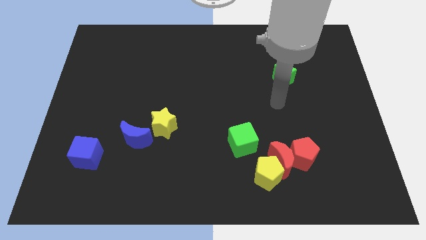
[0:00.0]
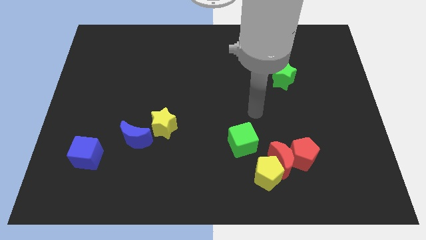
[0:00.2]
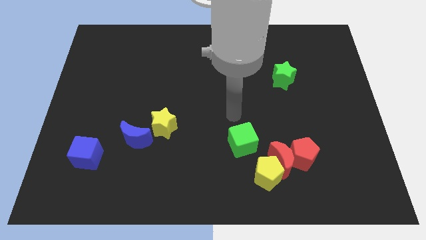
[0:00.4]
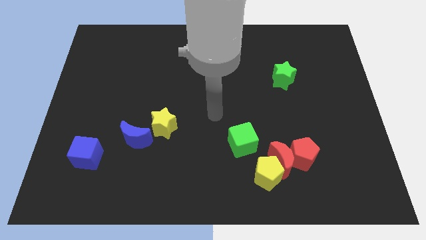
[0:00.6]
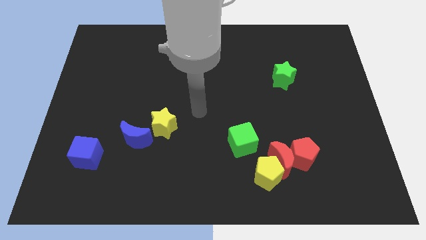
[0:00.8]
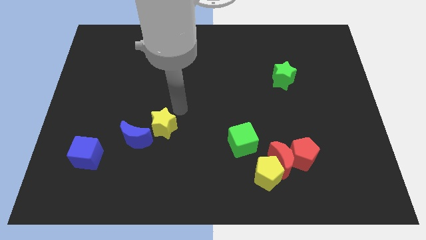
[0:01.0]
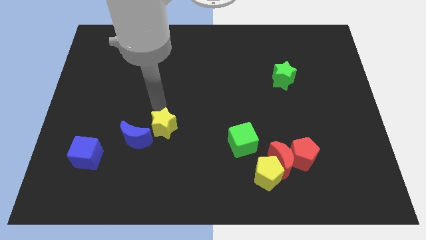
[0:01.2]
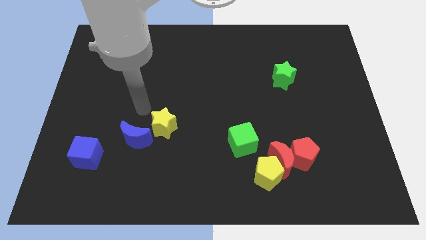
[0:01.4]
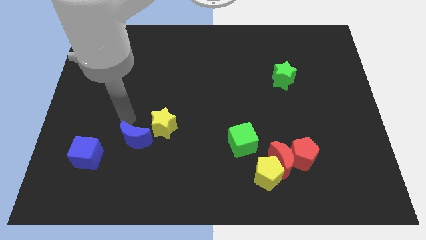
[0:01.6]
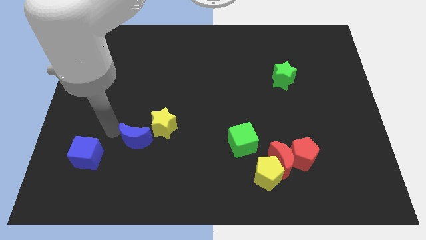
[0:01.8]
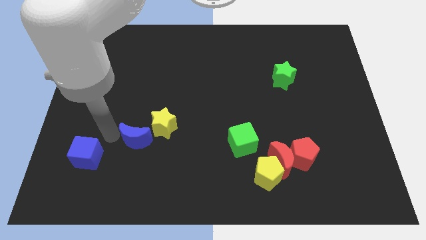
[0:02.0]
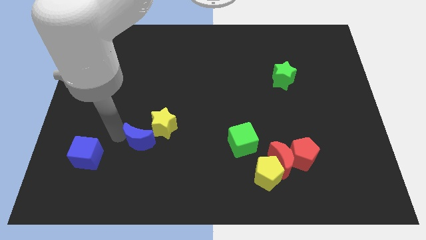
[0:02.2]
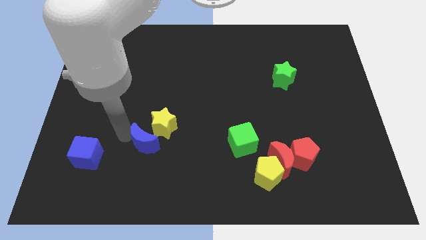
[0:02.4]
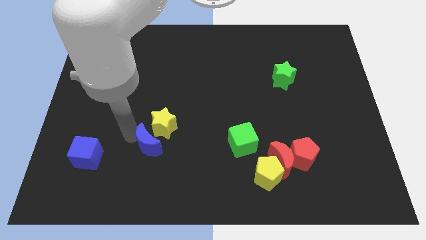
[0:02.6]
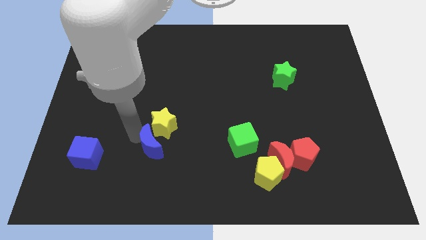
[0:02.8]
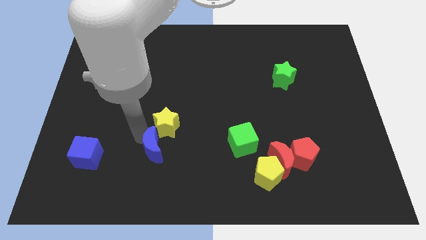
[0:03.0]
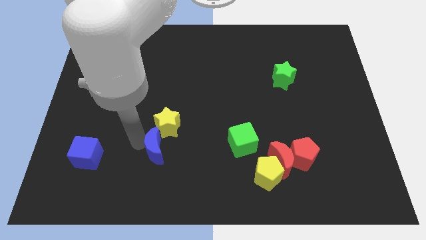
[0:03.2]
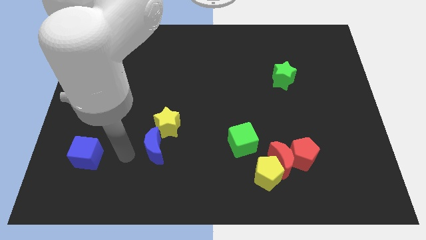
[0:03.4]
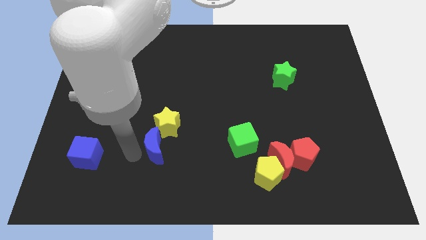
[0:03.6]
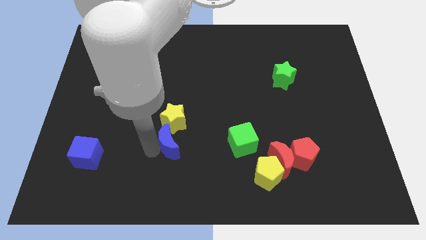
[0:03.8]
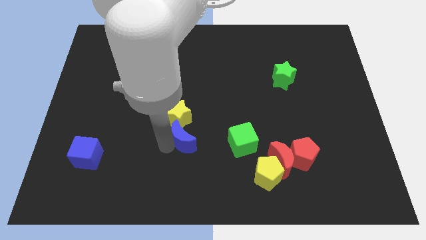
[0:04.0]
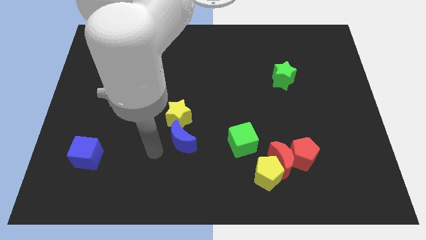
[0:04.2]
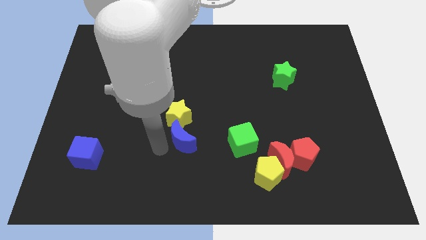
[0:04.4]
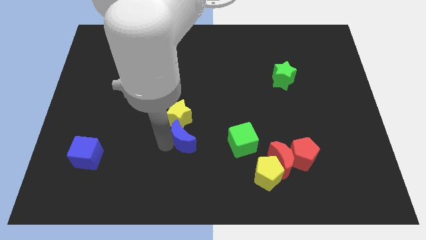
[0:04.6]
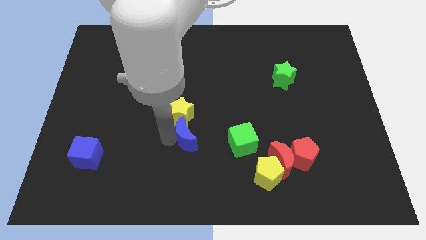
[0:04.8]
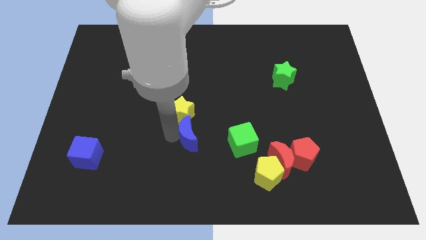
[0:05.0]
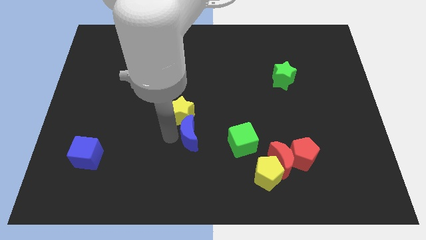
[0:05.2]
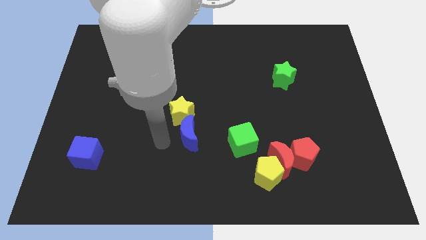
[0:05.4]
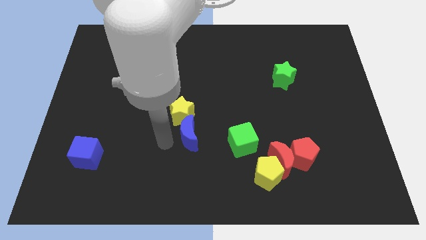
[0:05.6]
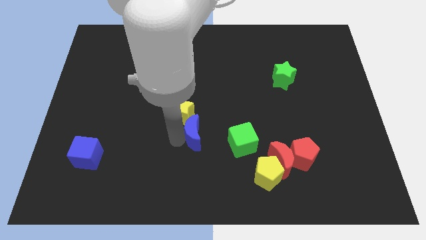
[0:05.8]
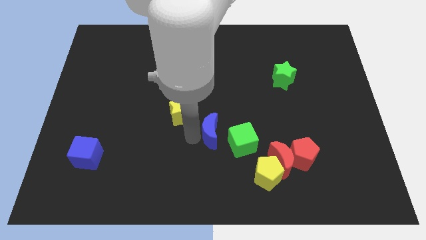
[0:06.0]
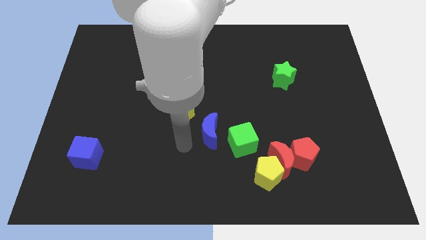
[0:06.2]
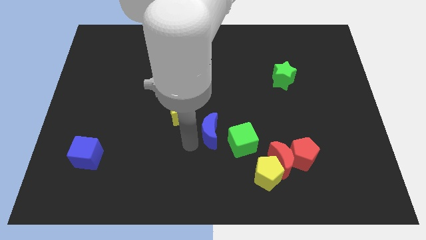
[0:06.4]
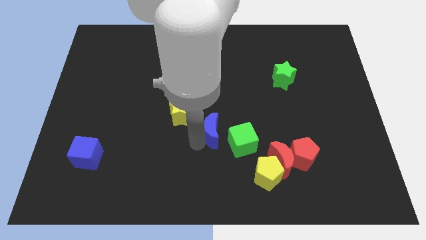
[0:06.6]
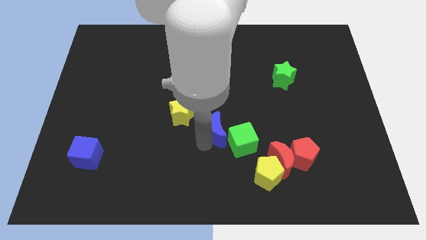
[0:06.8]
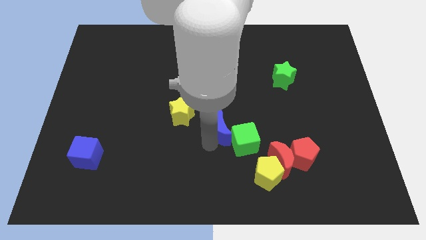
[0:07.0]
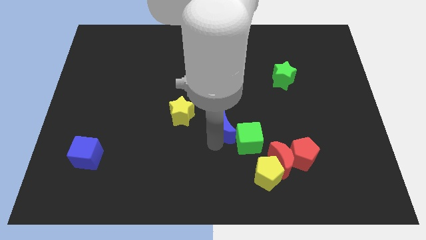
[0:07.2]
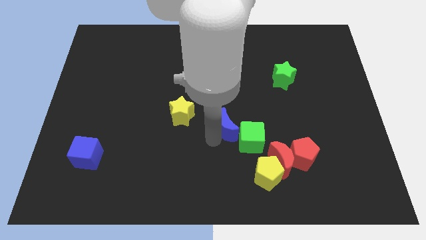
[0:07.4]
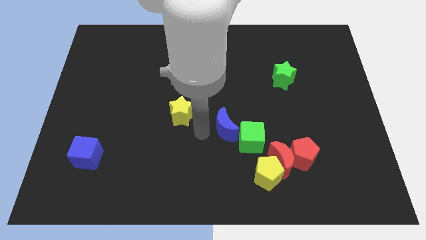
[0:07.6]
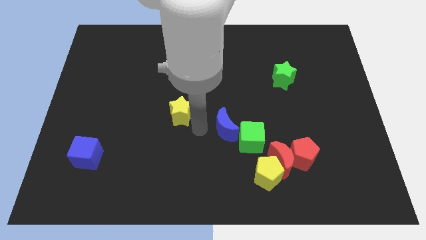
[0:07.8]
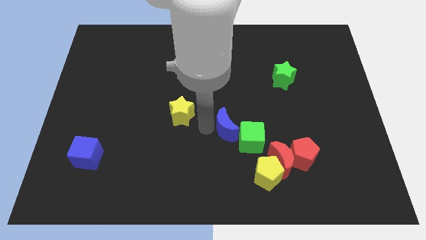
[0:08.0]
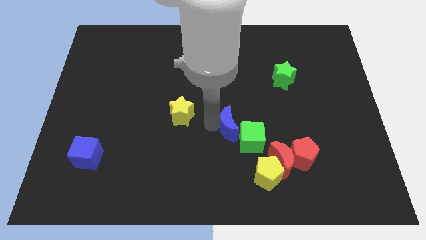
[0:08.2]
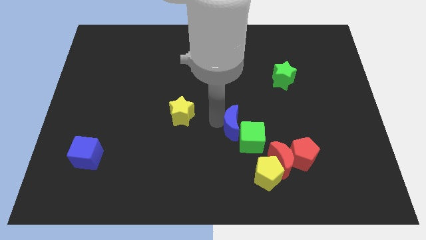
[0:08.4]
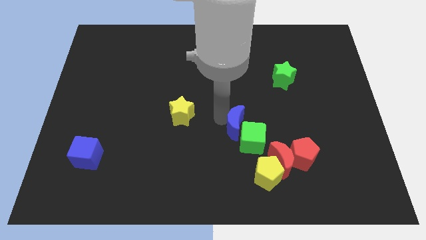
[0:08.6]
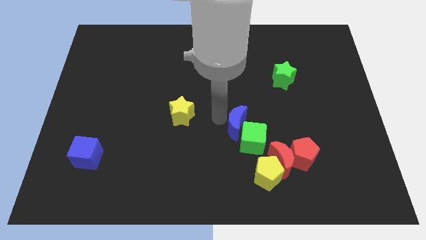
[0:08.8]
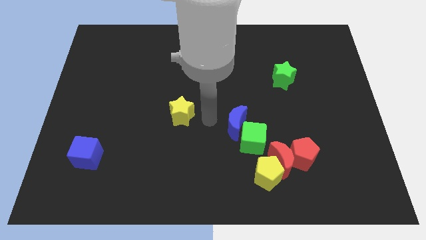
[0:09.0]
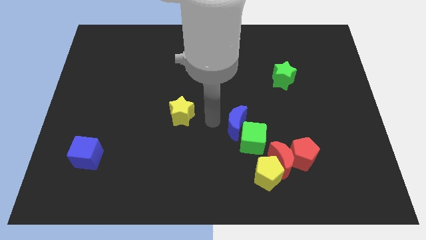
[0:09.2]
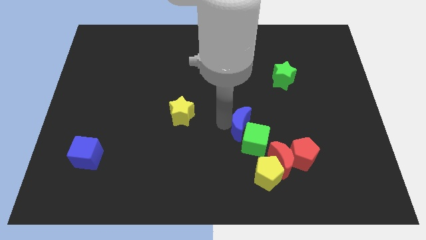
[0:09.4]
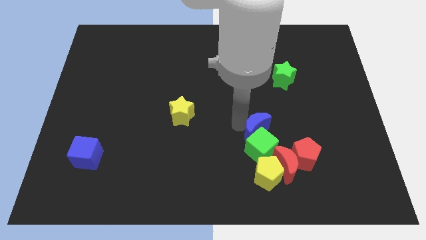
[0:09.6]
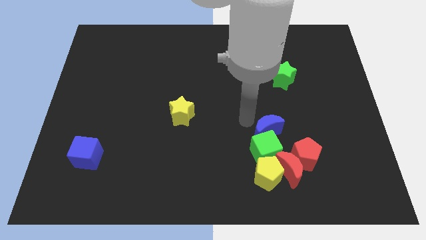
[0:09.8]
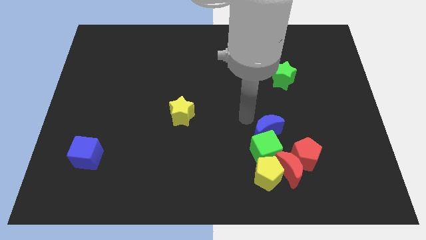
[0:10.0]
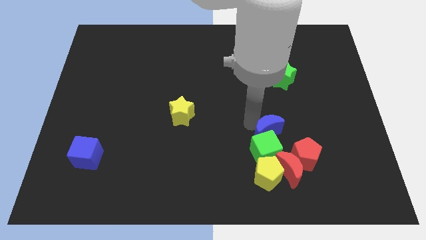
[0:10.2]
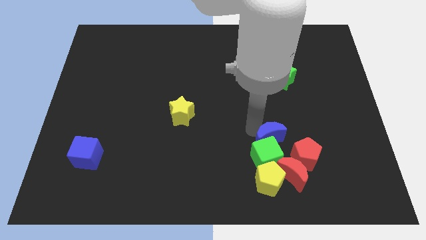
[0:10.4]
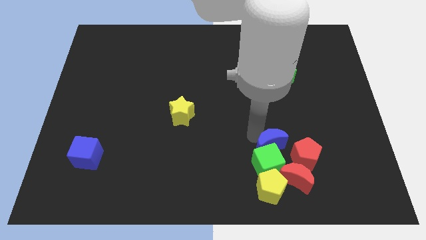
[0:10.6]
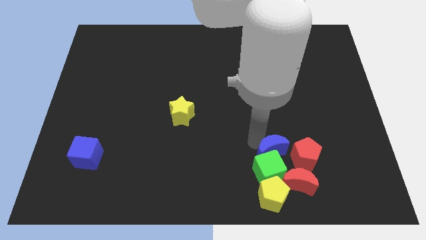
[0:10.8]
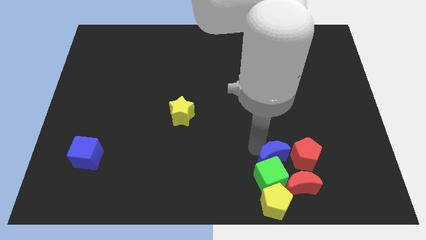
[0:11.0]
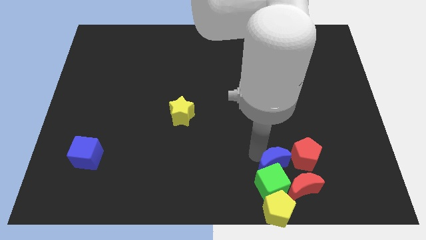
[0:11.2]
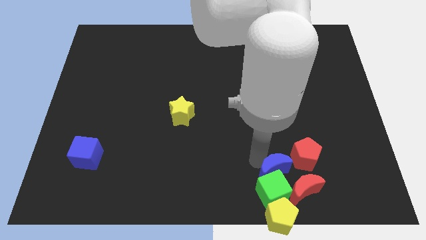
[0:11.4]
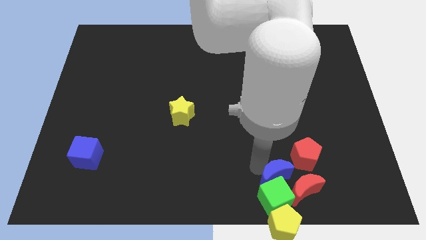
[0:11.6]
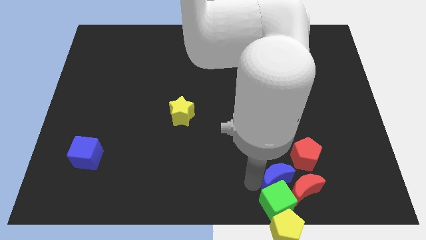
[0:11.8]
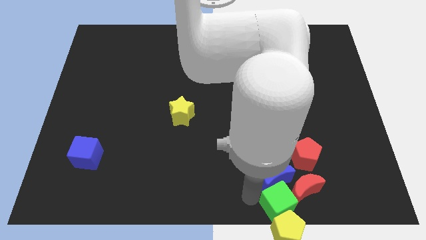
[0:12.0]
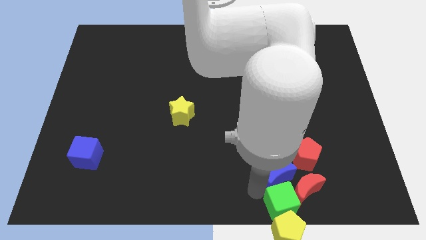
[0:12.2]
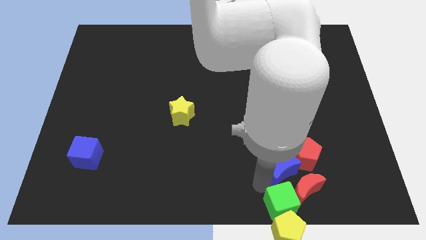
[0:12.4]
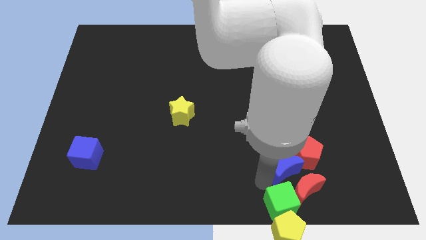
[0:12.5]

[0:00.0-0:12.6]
move the blue moon next to the red pentagon

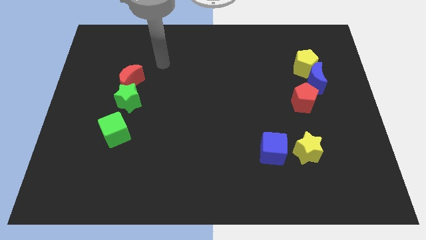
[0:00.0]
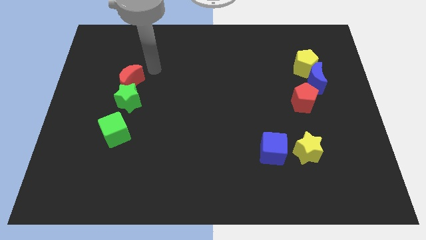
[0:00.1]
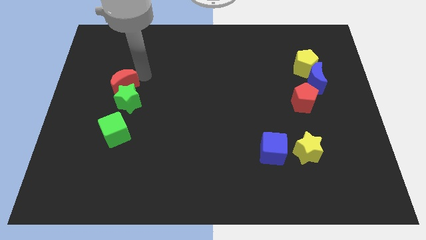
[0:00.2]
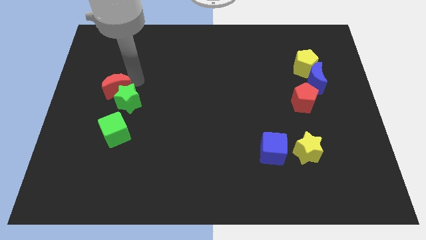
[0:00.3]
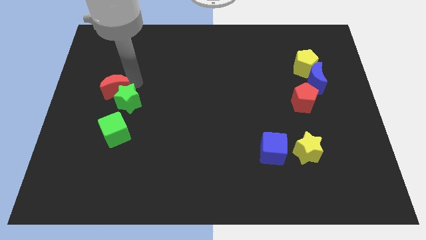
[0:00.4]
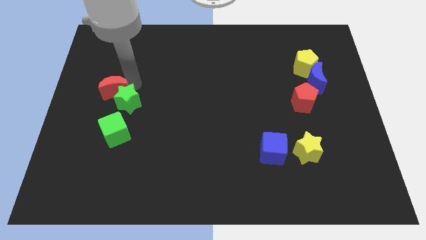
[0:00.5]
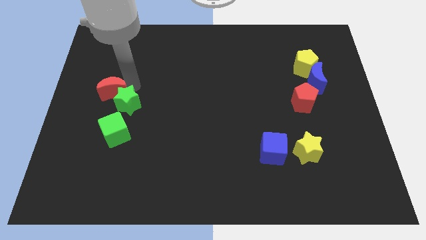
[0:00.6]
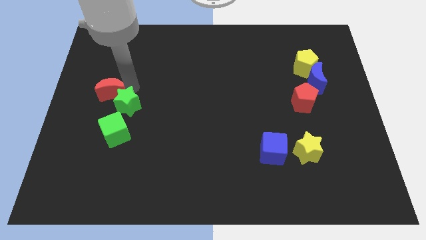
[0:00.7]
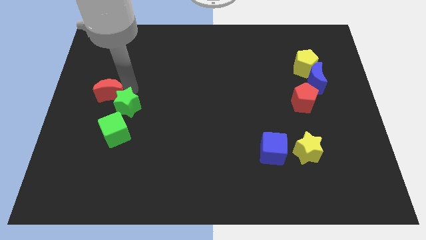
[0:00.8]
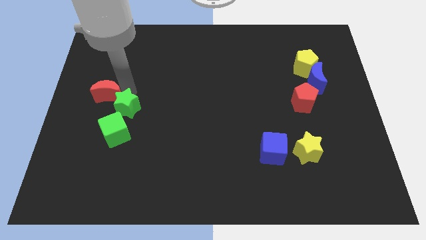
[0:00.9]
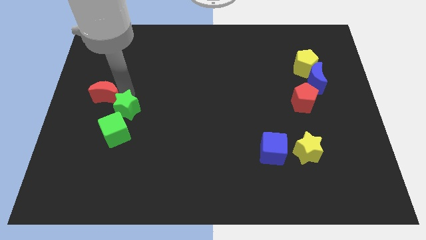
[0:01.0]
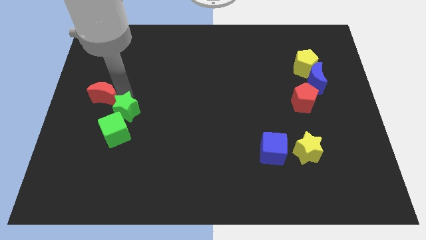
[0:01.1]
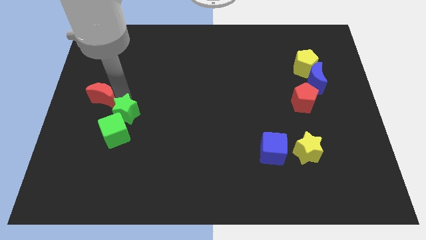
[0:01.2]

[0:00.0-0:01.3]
put the green star towards the green cube
